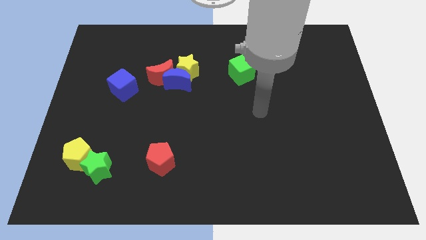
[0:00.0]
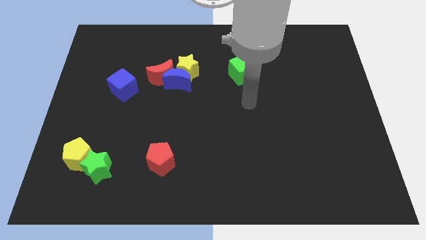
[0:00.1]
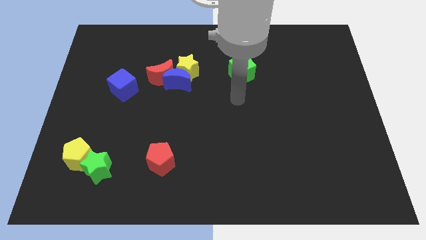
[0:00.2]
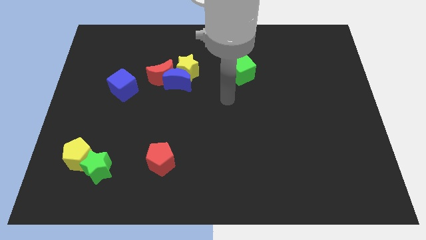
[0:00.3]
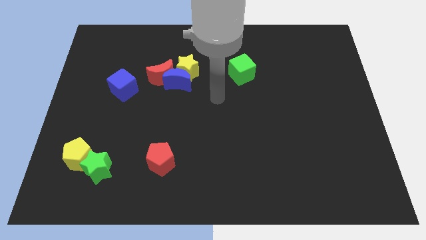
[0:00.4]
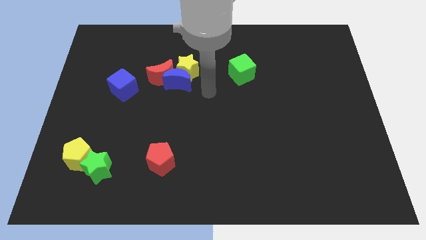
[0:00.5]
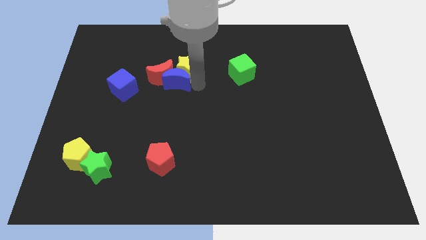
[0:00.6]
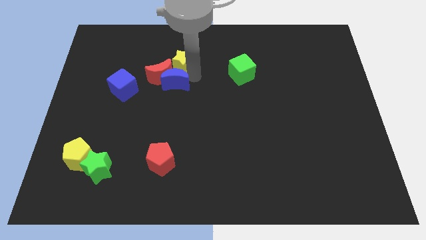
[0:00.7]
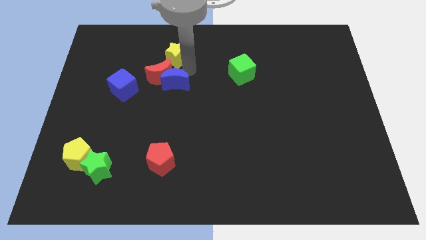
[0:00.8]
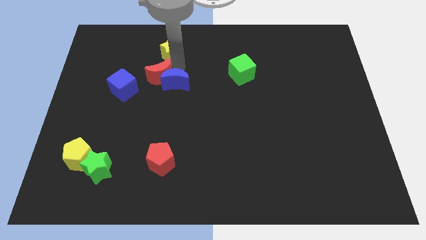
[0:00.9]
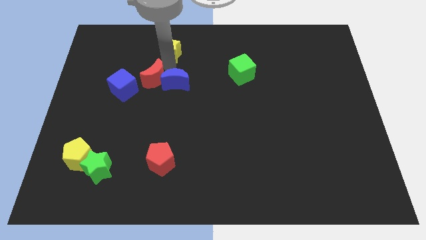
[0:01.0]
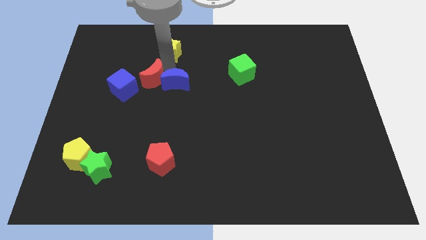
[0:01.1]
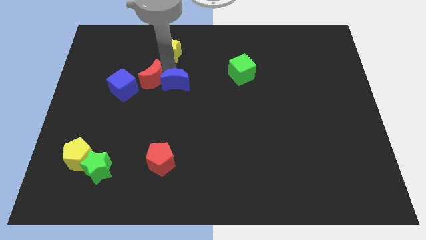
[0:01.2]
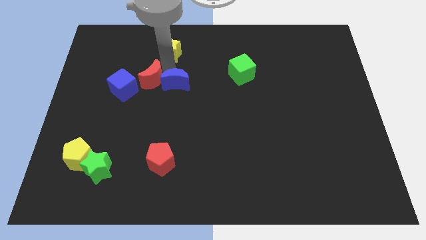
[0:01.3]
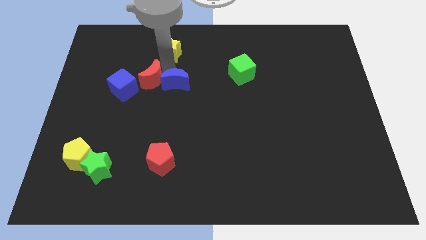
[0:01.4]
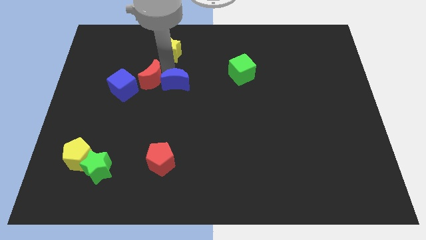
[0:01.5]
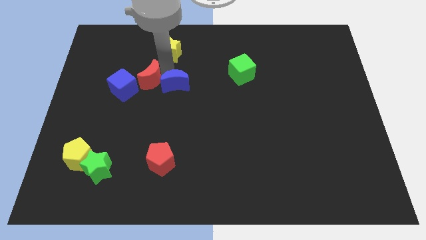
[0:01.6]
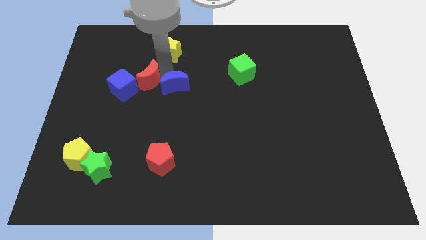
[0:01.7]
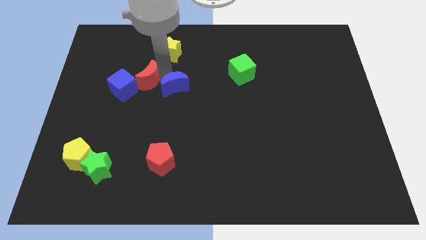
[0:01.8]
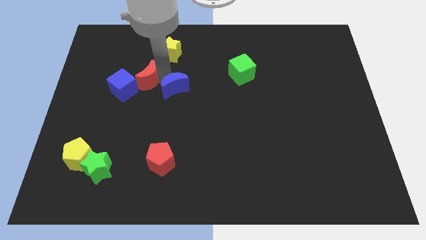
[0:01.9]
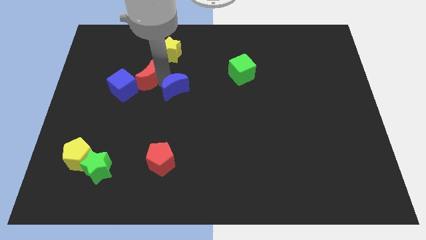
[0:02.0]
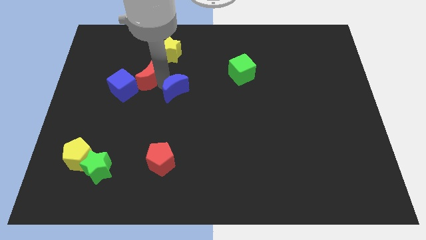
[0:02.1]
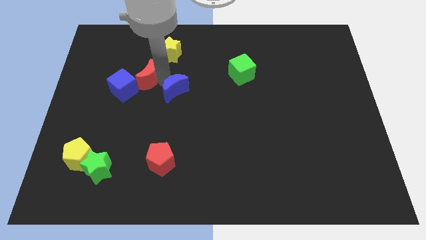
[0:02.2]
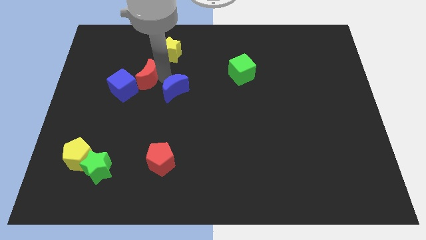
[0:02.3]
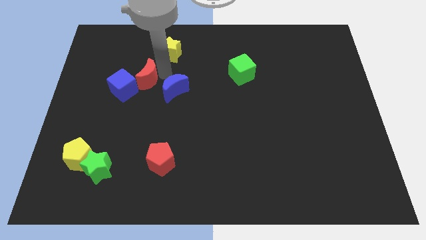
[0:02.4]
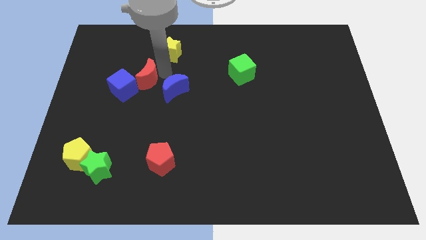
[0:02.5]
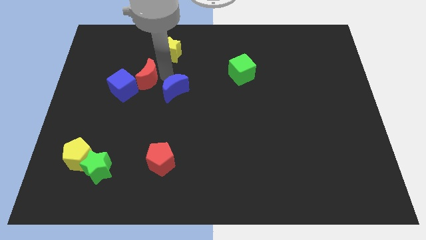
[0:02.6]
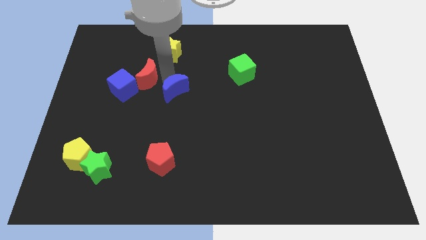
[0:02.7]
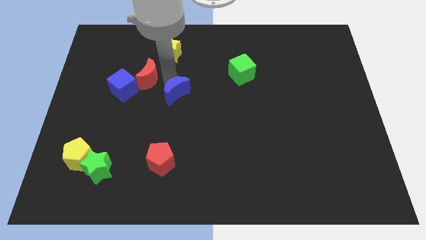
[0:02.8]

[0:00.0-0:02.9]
pull the blue moon apart from the yellow star and red moon

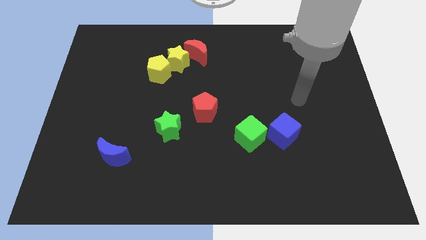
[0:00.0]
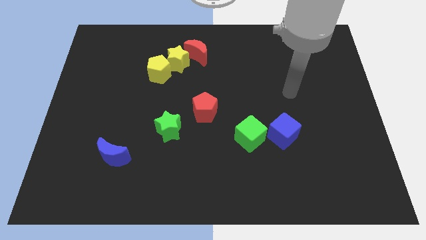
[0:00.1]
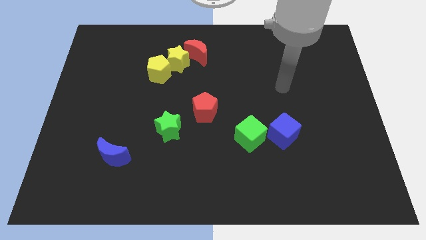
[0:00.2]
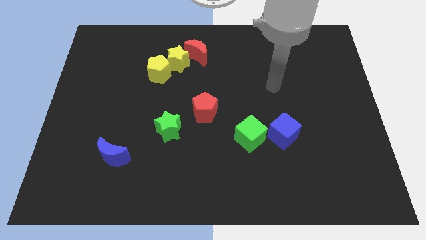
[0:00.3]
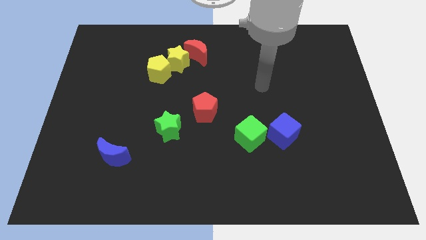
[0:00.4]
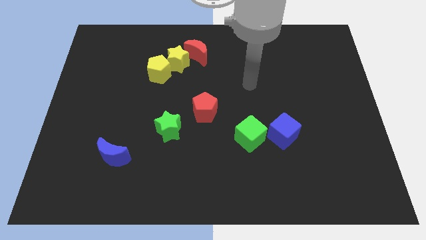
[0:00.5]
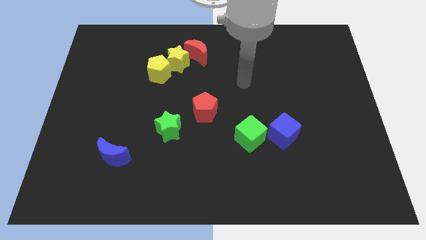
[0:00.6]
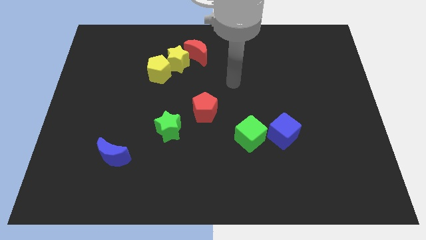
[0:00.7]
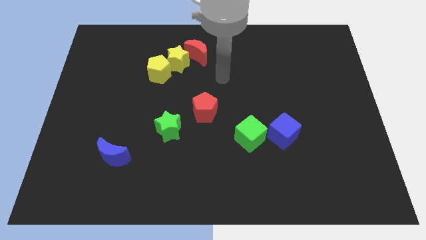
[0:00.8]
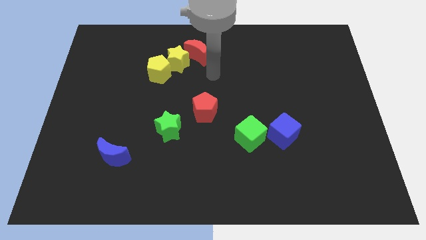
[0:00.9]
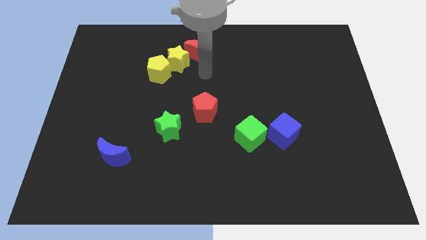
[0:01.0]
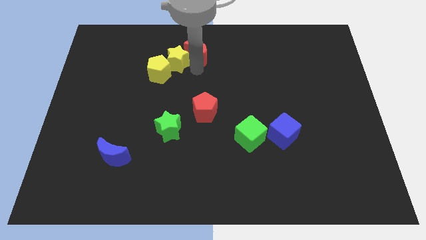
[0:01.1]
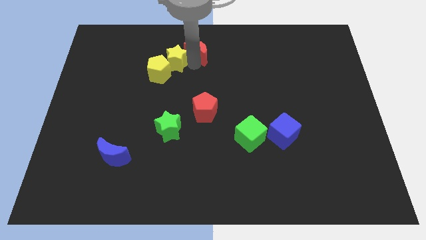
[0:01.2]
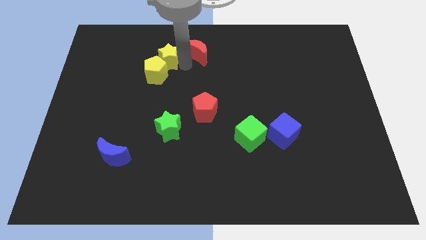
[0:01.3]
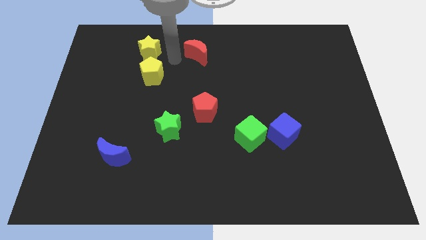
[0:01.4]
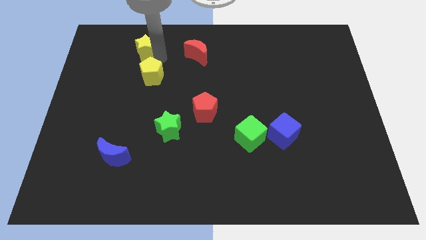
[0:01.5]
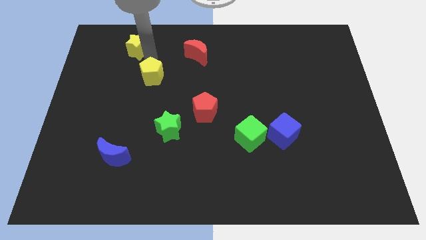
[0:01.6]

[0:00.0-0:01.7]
move the yellow pentagon away from the yellow star

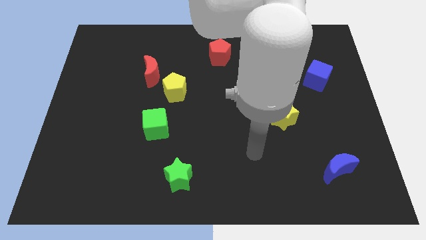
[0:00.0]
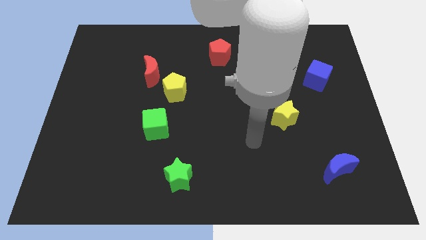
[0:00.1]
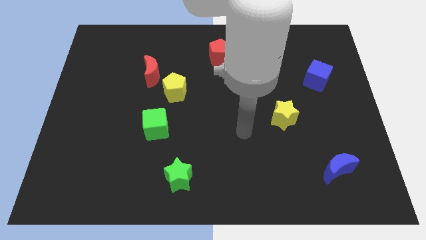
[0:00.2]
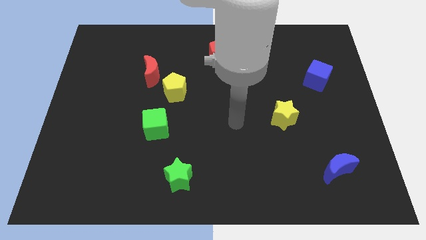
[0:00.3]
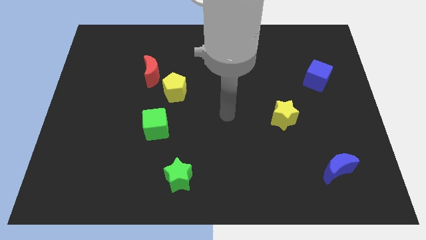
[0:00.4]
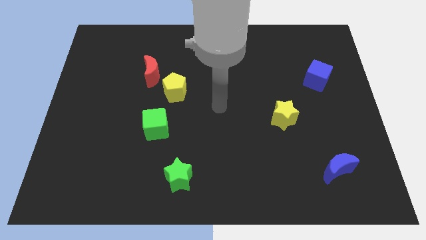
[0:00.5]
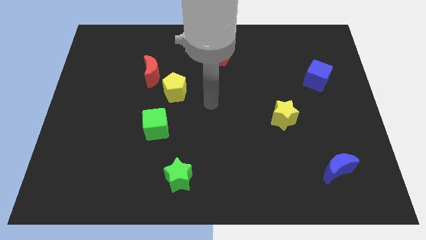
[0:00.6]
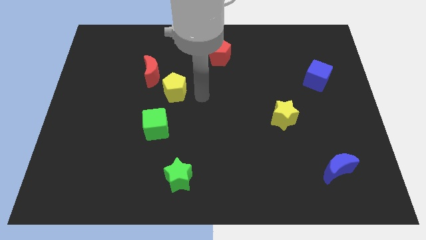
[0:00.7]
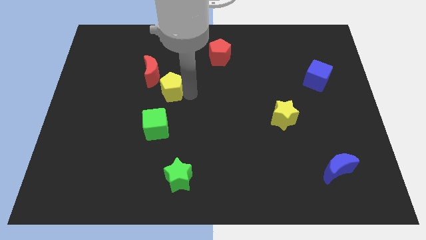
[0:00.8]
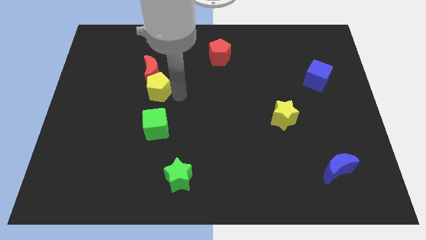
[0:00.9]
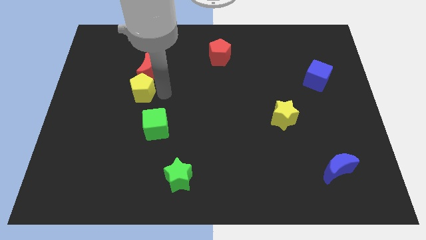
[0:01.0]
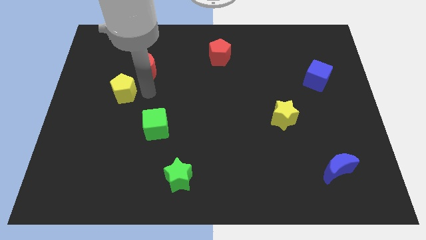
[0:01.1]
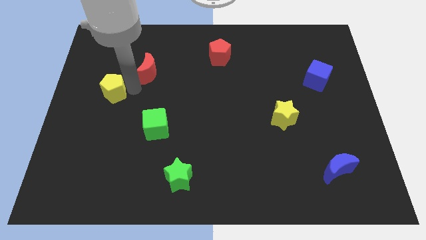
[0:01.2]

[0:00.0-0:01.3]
separate the red moon from the yellow pentagon

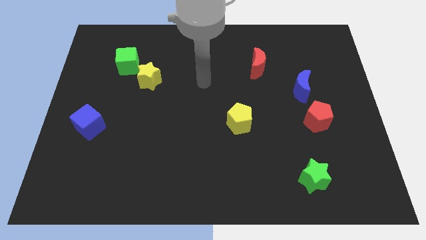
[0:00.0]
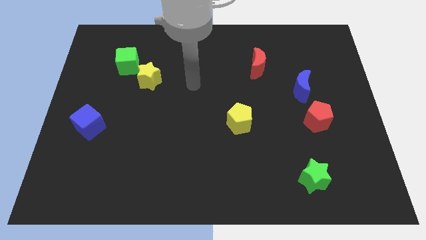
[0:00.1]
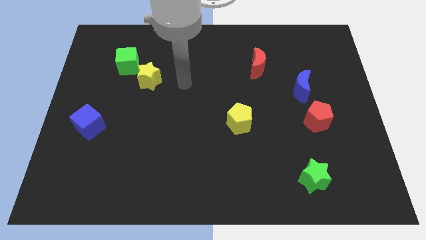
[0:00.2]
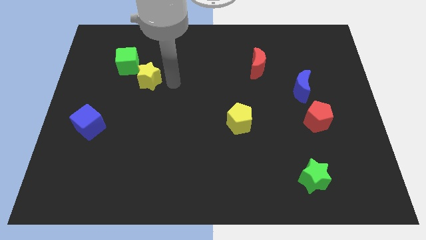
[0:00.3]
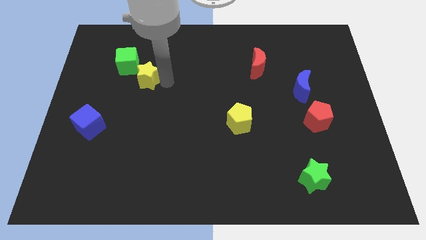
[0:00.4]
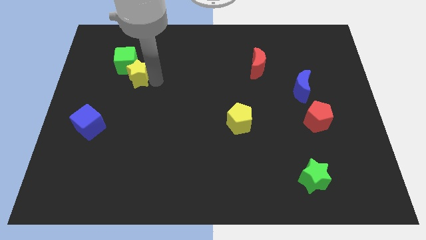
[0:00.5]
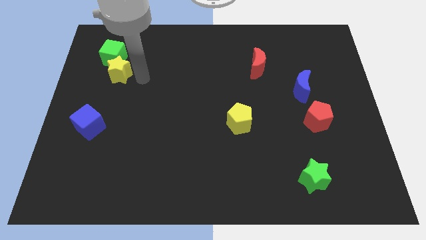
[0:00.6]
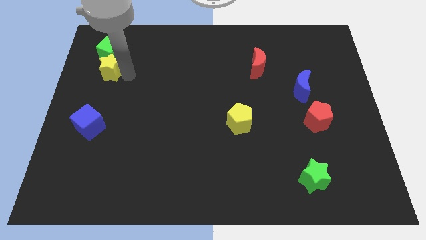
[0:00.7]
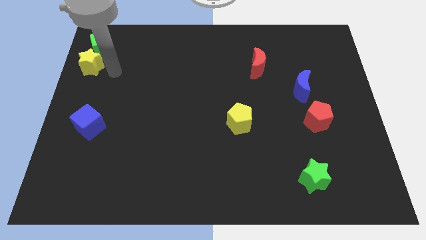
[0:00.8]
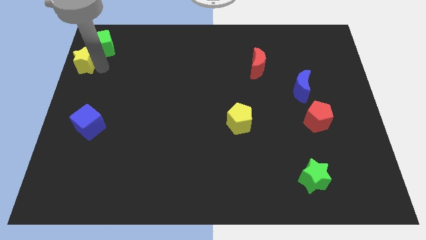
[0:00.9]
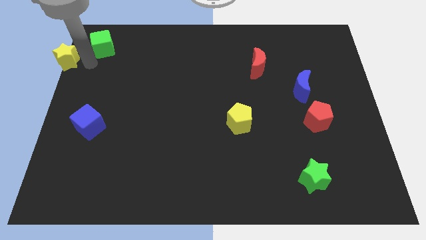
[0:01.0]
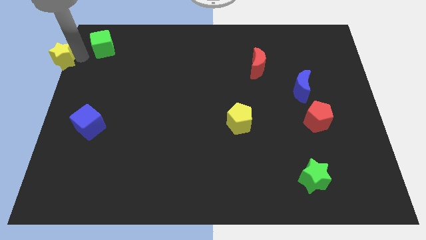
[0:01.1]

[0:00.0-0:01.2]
move the green cube away from the yellow star

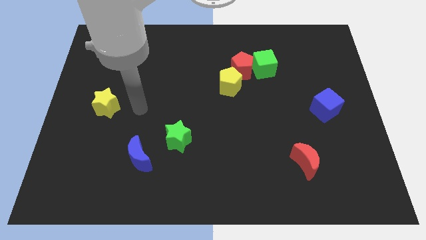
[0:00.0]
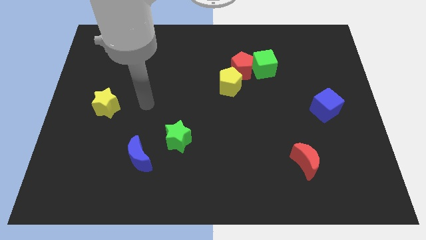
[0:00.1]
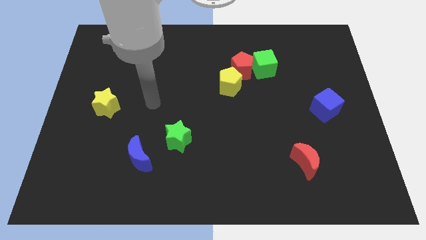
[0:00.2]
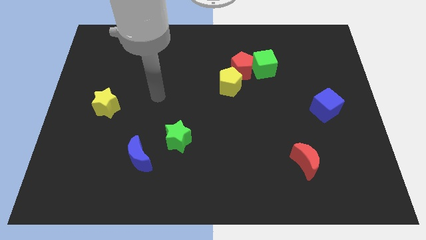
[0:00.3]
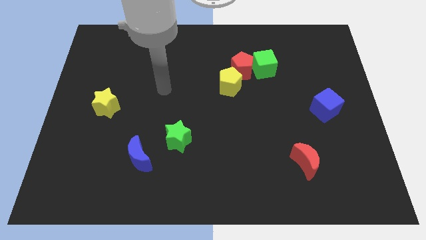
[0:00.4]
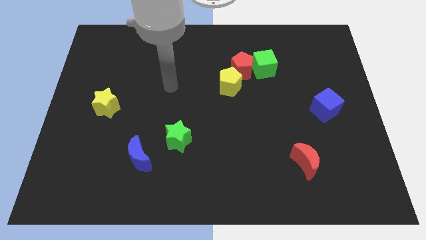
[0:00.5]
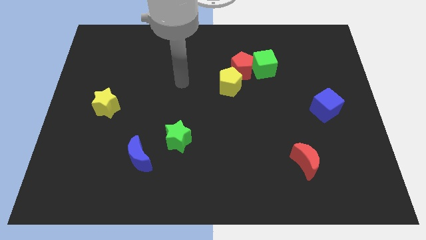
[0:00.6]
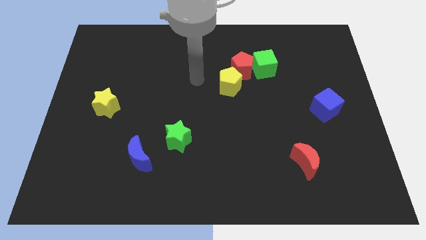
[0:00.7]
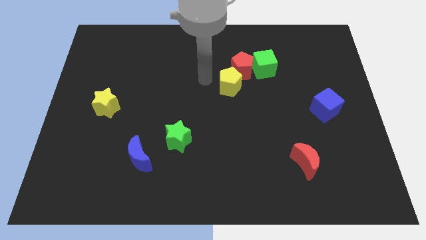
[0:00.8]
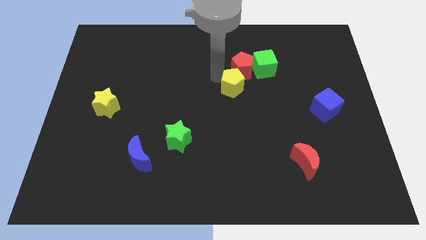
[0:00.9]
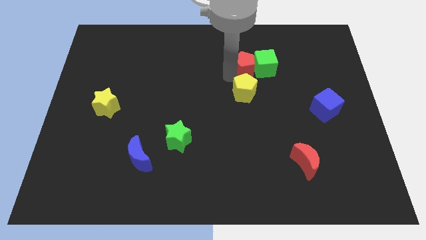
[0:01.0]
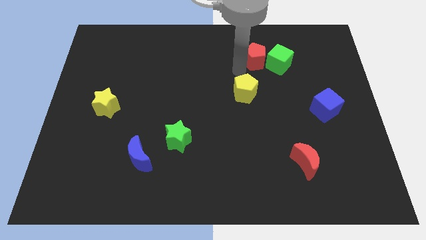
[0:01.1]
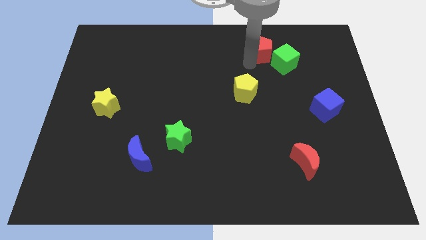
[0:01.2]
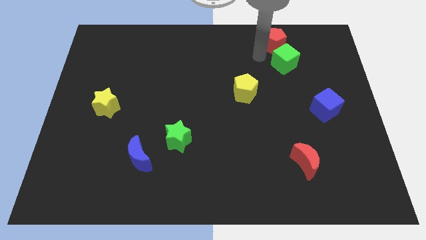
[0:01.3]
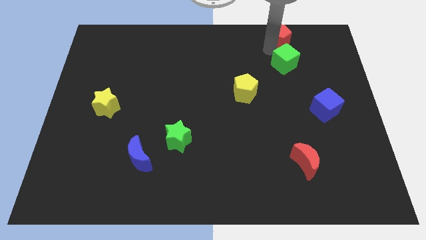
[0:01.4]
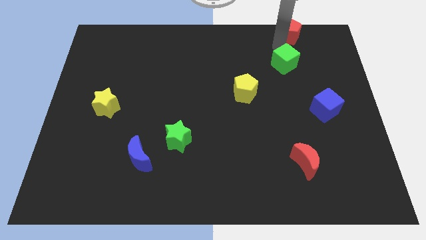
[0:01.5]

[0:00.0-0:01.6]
separate the green cube from the red pentagon

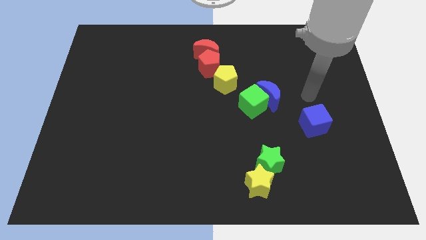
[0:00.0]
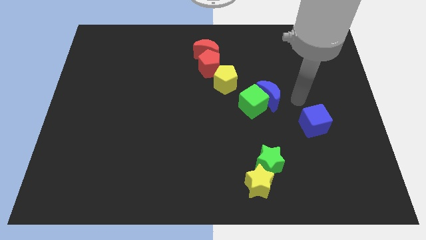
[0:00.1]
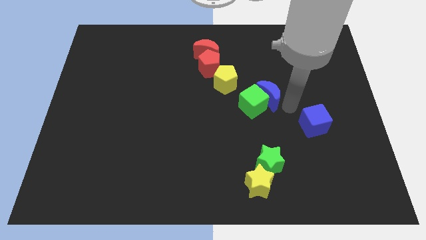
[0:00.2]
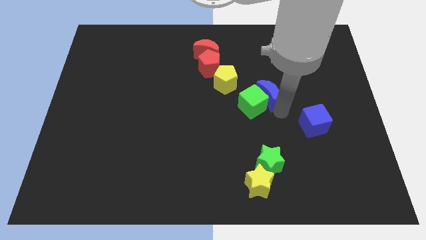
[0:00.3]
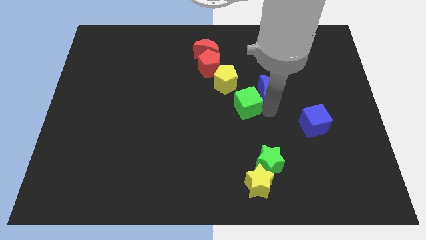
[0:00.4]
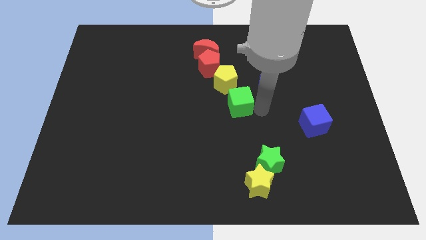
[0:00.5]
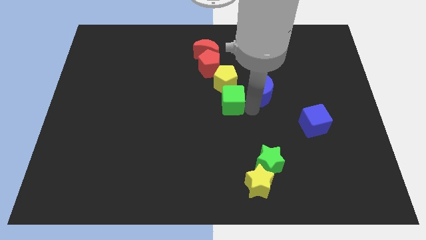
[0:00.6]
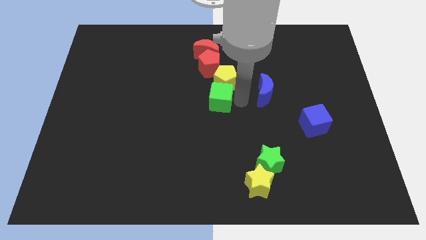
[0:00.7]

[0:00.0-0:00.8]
separate the blue moon from the green cube

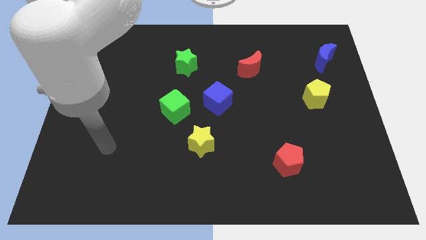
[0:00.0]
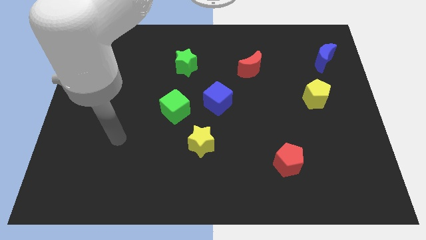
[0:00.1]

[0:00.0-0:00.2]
separate the blue cube from the green cube
